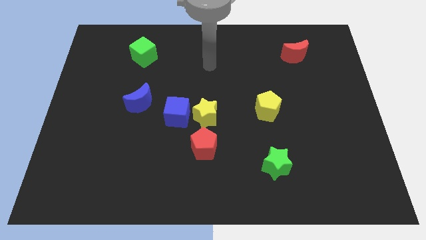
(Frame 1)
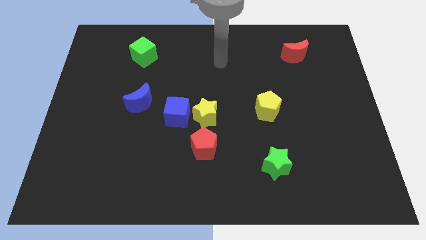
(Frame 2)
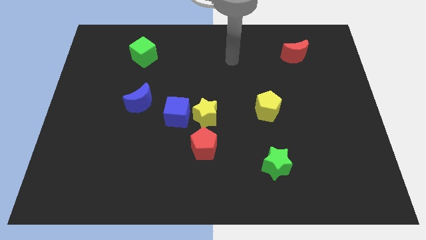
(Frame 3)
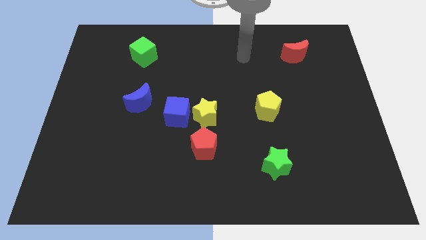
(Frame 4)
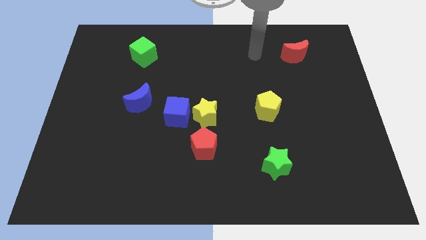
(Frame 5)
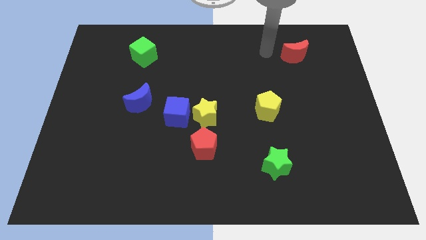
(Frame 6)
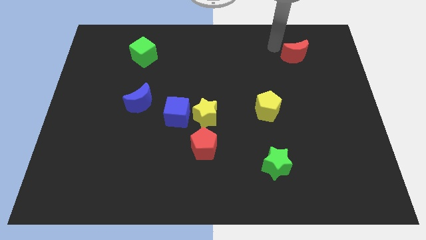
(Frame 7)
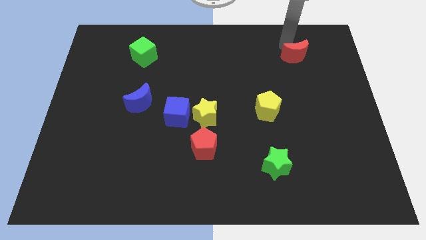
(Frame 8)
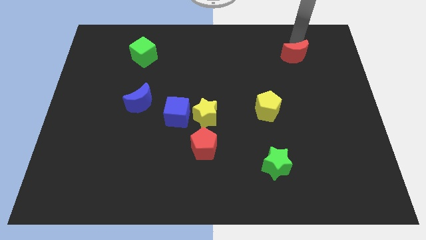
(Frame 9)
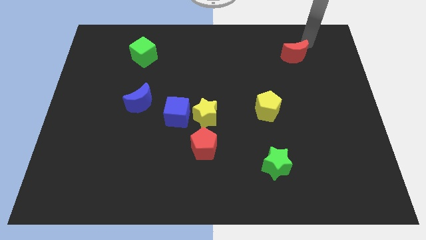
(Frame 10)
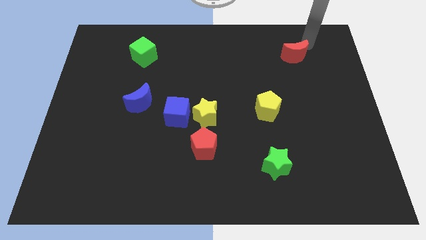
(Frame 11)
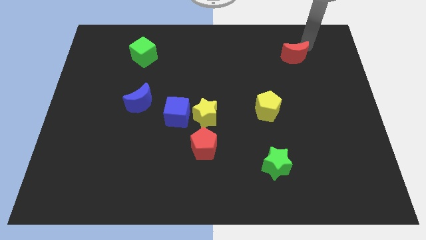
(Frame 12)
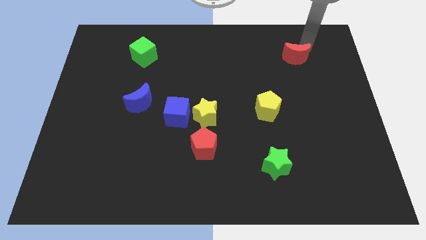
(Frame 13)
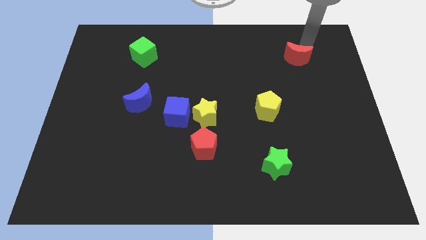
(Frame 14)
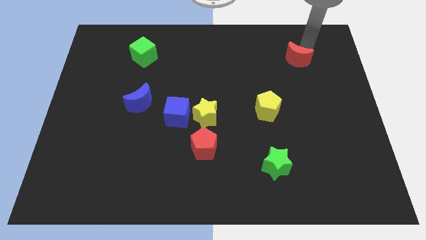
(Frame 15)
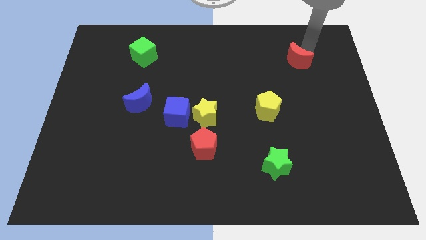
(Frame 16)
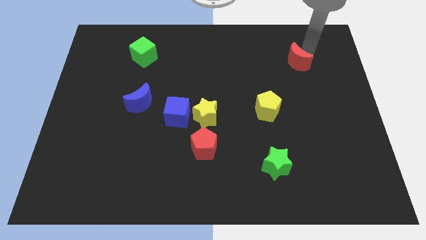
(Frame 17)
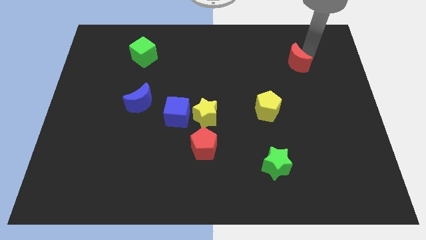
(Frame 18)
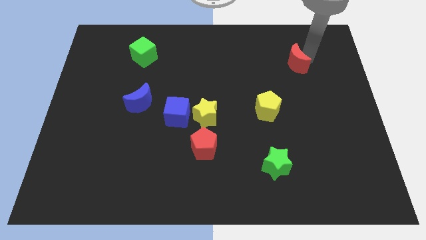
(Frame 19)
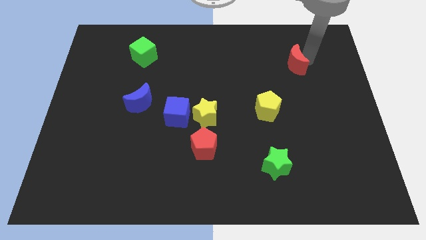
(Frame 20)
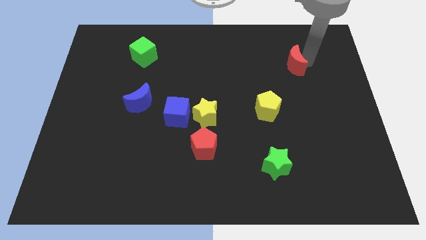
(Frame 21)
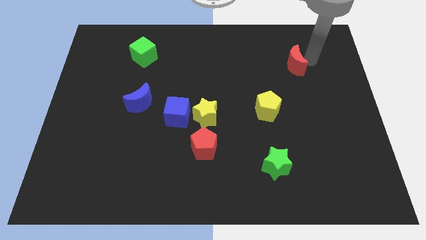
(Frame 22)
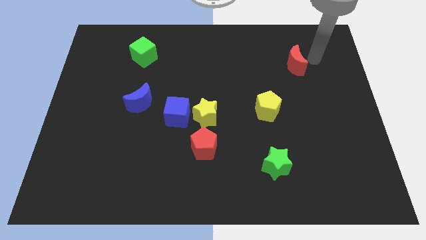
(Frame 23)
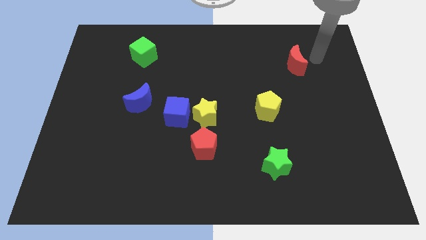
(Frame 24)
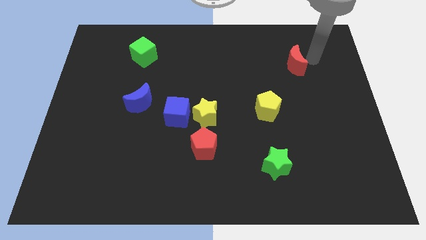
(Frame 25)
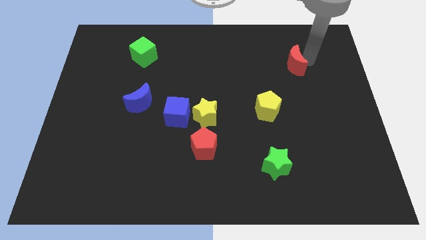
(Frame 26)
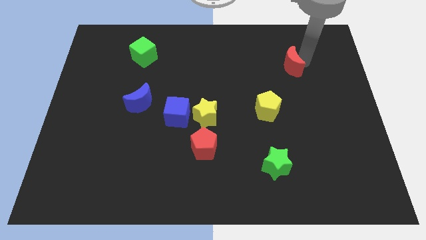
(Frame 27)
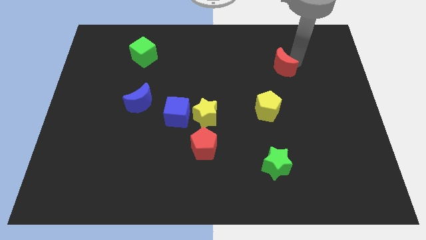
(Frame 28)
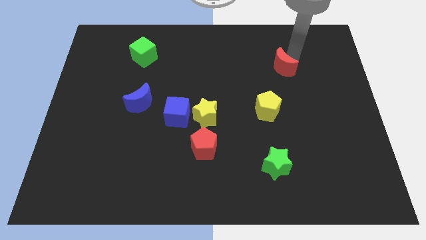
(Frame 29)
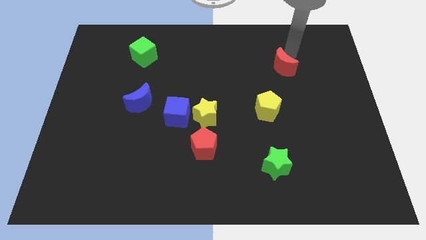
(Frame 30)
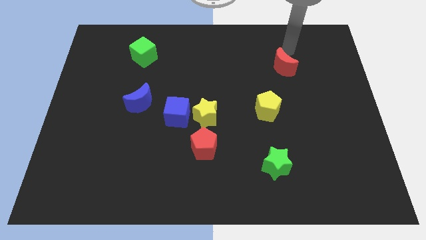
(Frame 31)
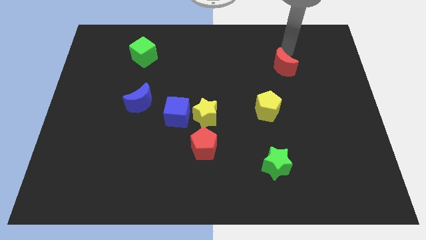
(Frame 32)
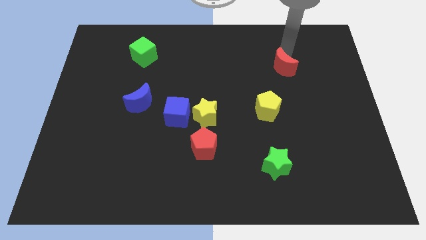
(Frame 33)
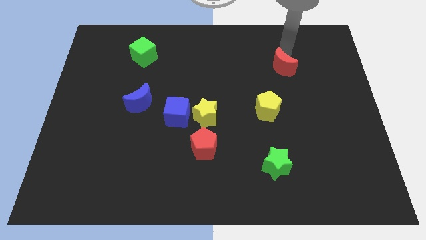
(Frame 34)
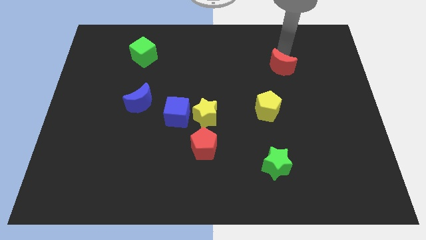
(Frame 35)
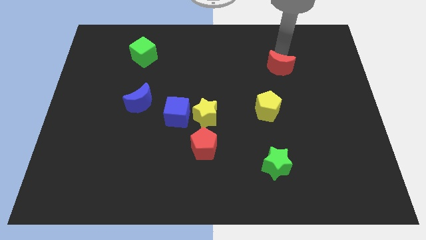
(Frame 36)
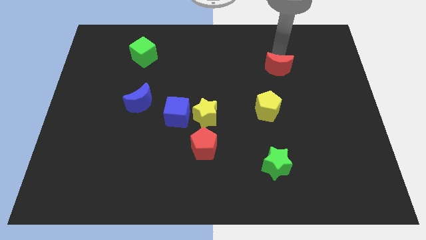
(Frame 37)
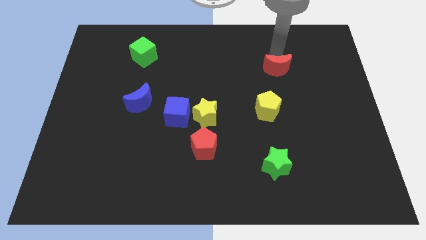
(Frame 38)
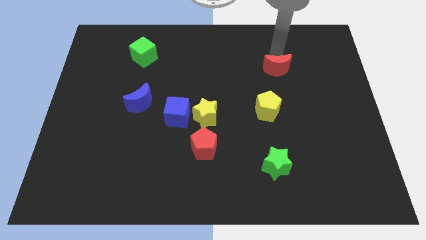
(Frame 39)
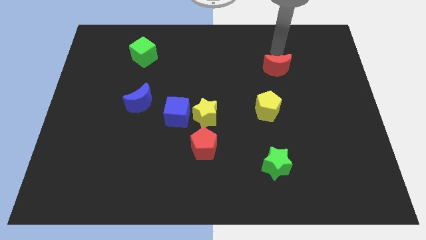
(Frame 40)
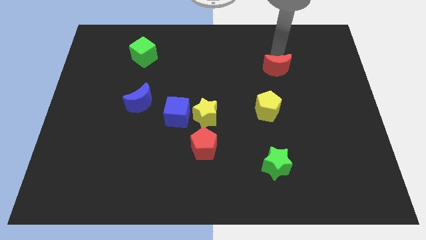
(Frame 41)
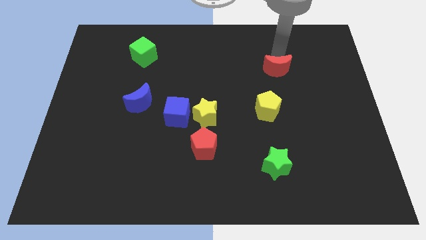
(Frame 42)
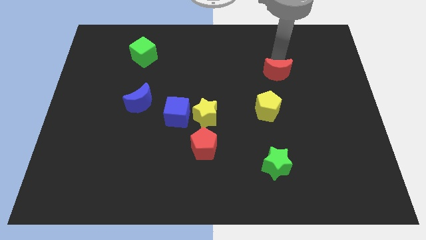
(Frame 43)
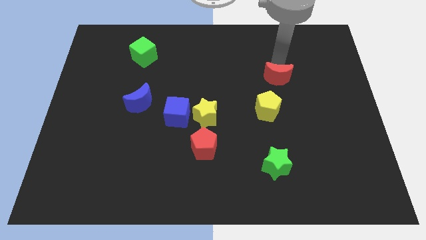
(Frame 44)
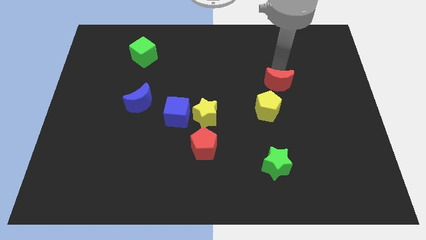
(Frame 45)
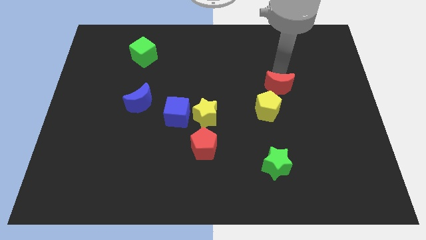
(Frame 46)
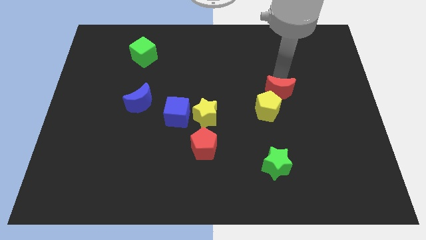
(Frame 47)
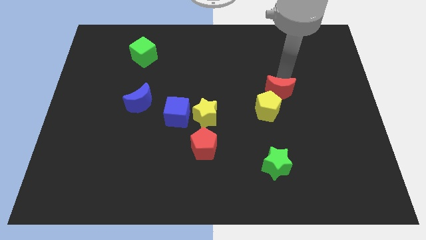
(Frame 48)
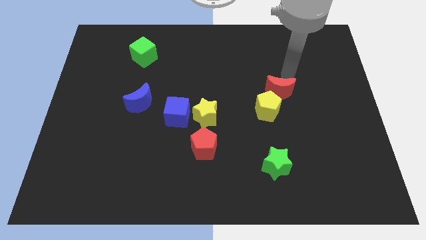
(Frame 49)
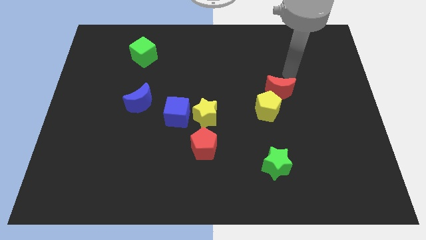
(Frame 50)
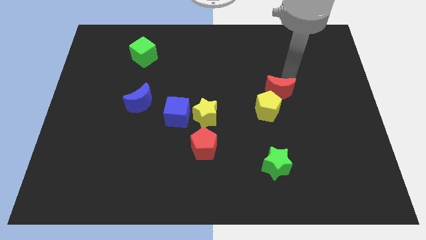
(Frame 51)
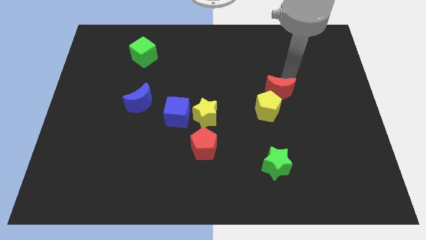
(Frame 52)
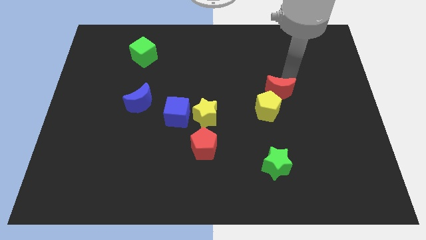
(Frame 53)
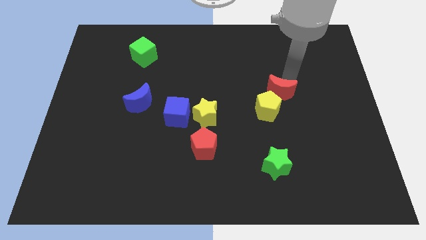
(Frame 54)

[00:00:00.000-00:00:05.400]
slide the red moon towards the yellow pentagon

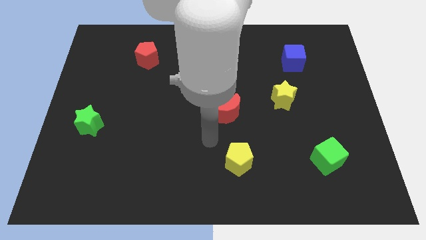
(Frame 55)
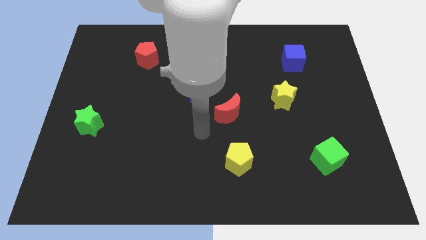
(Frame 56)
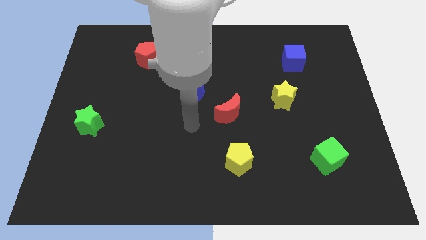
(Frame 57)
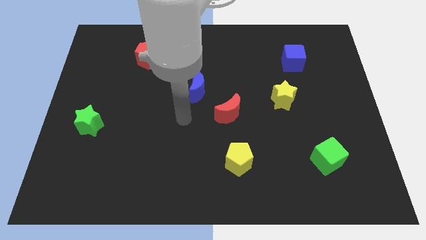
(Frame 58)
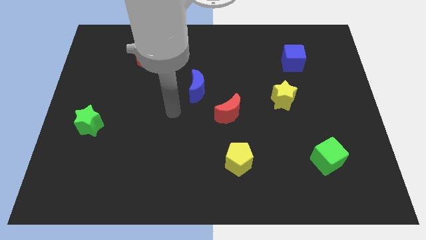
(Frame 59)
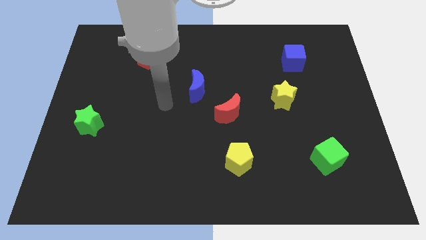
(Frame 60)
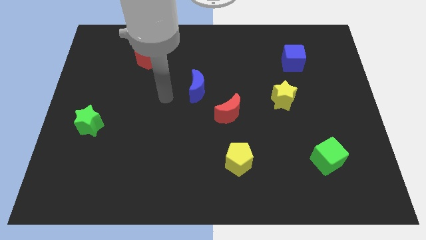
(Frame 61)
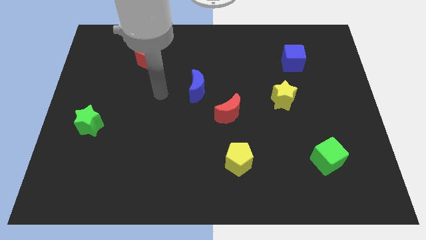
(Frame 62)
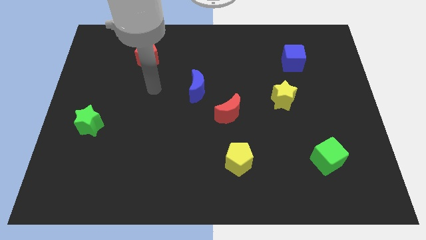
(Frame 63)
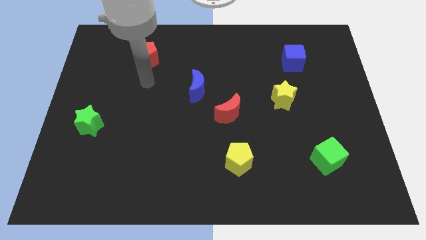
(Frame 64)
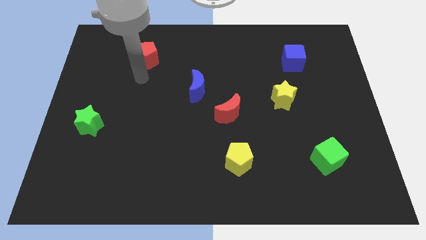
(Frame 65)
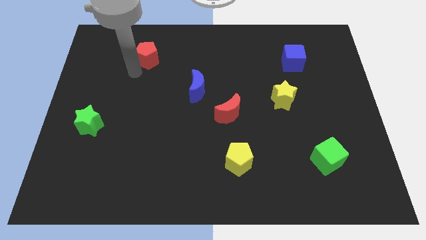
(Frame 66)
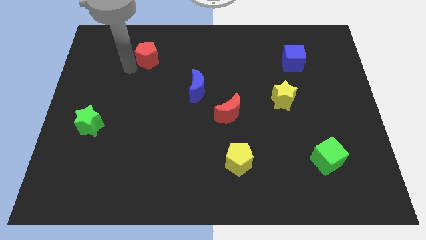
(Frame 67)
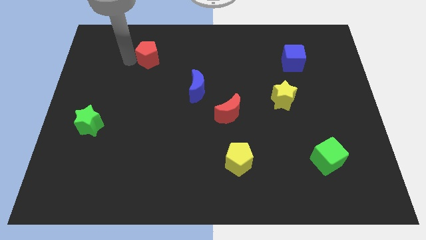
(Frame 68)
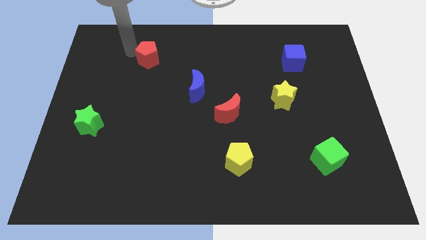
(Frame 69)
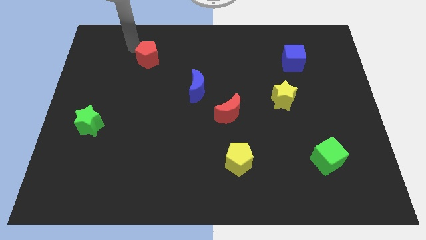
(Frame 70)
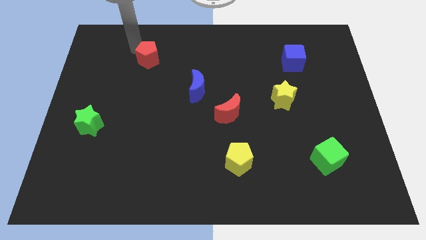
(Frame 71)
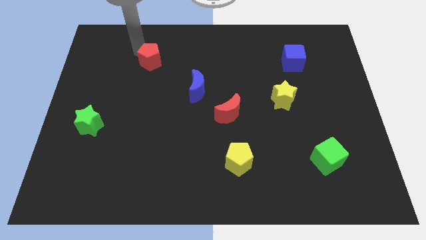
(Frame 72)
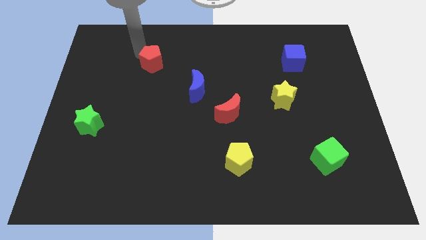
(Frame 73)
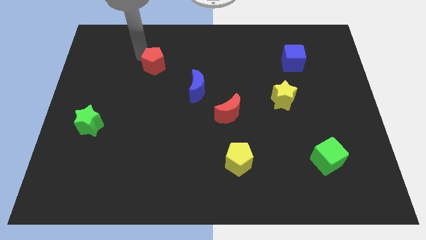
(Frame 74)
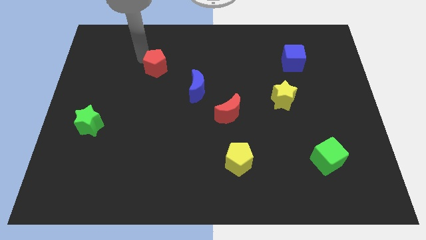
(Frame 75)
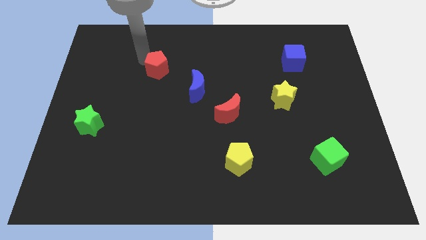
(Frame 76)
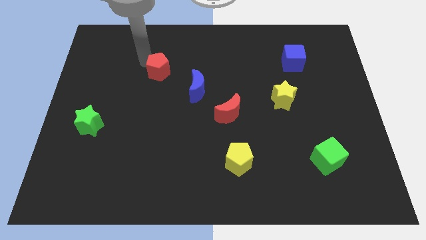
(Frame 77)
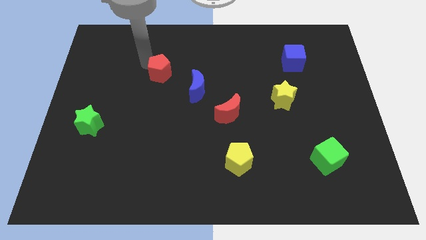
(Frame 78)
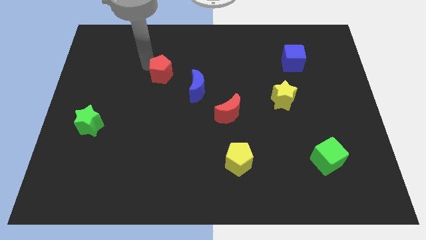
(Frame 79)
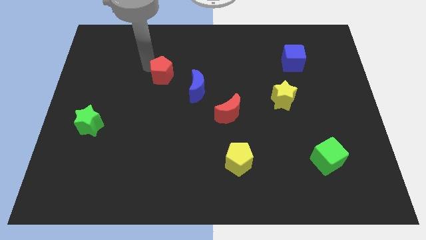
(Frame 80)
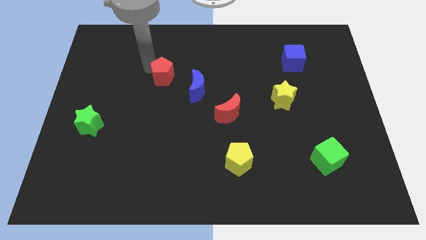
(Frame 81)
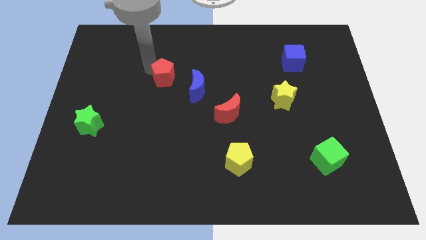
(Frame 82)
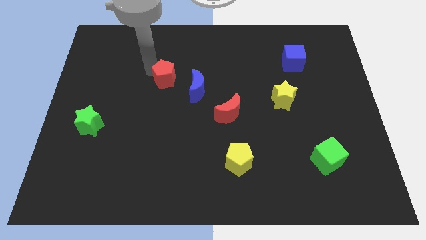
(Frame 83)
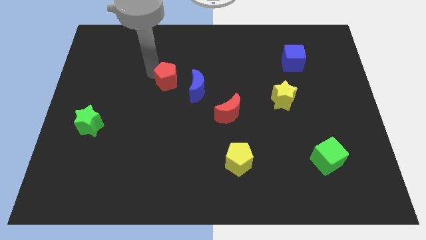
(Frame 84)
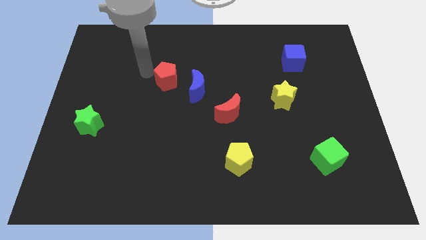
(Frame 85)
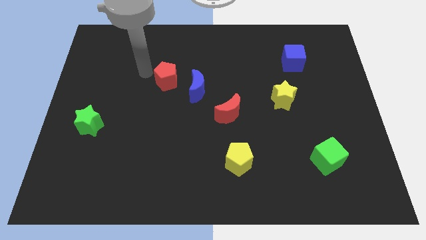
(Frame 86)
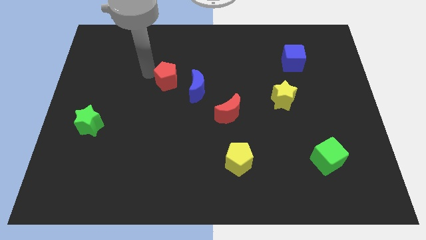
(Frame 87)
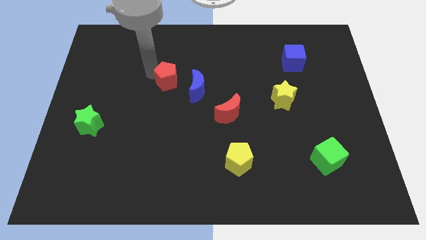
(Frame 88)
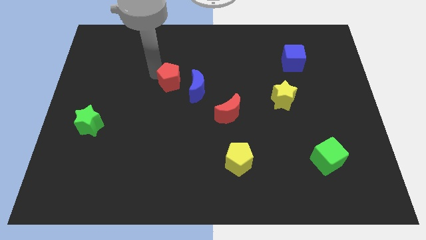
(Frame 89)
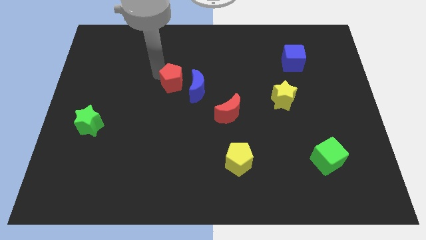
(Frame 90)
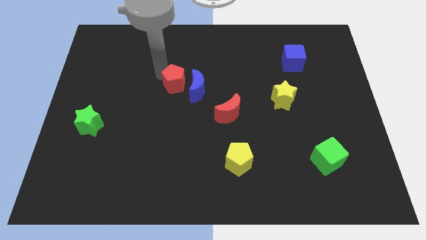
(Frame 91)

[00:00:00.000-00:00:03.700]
put the red pentagon to the blue moon
